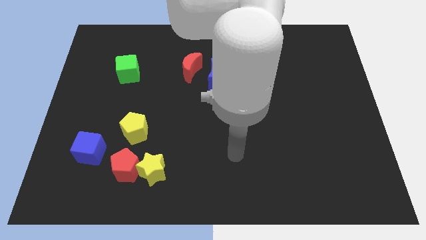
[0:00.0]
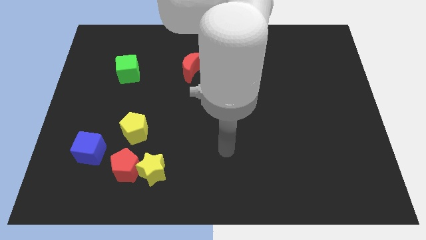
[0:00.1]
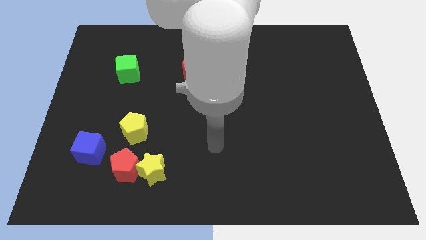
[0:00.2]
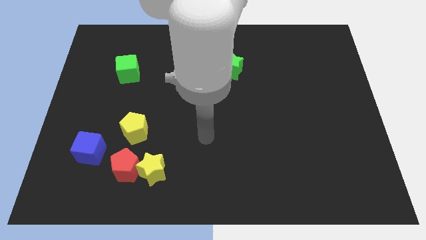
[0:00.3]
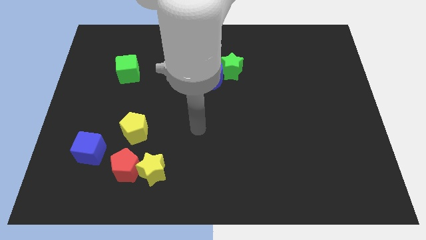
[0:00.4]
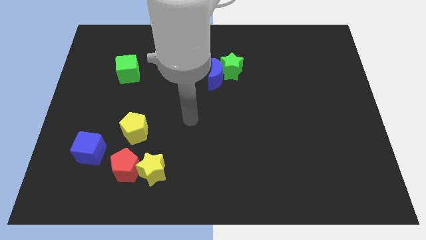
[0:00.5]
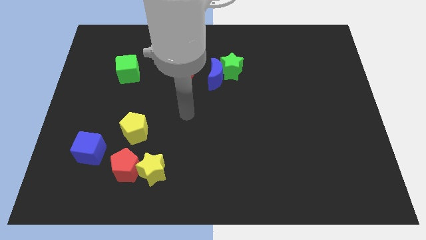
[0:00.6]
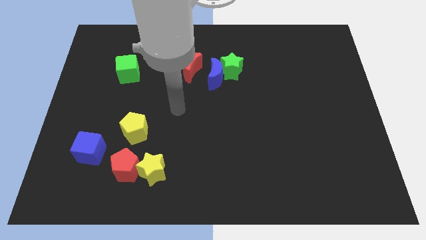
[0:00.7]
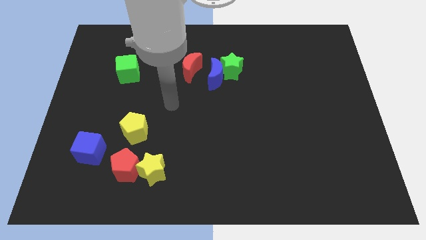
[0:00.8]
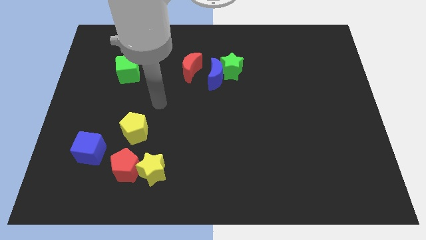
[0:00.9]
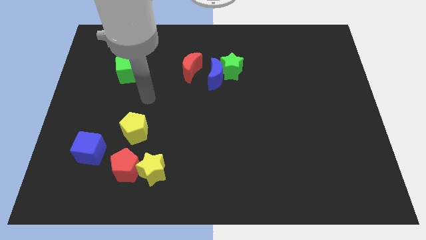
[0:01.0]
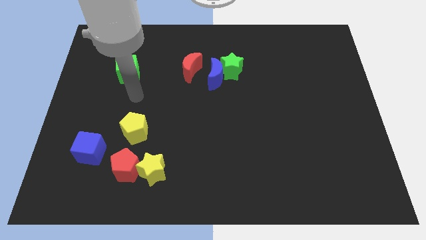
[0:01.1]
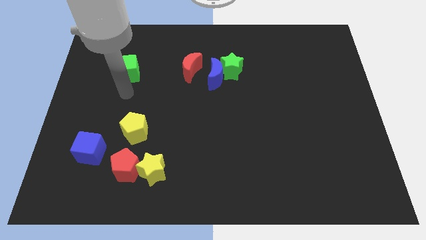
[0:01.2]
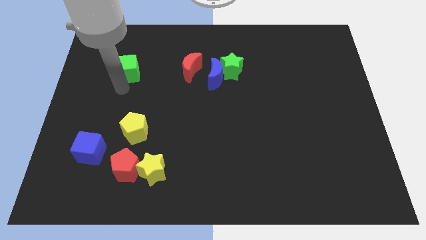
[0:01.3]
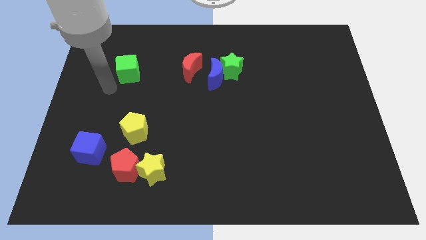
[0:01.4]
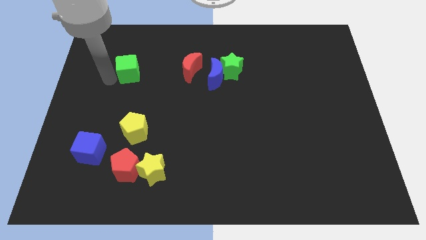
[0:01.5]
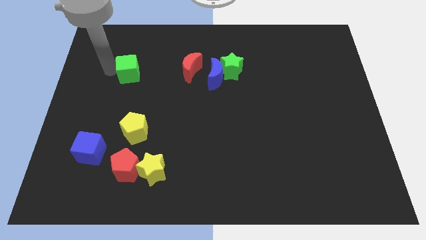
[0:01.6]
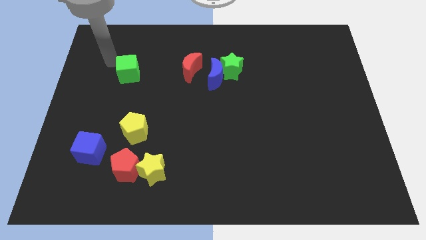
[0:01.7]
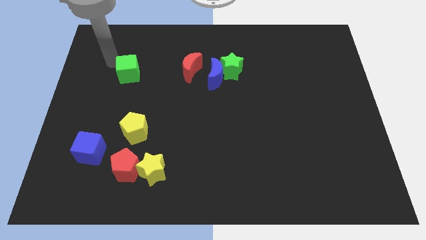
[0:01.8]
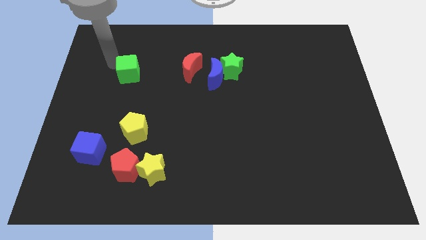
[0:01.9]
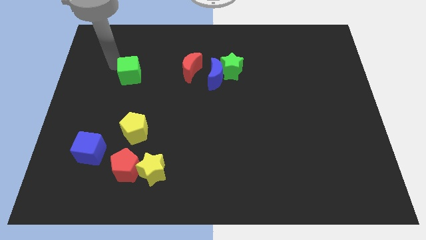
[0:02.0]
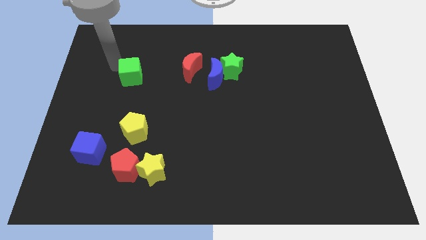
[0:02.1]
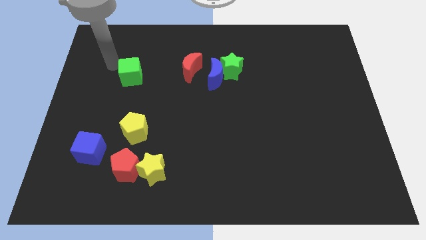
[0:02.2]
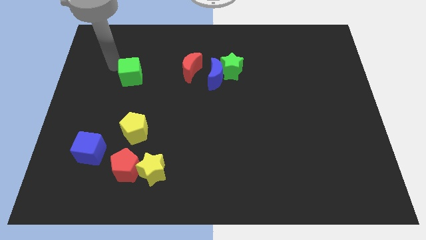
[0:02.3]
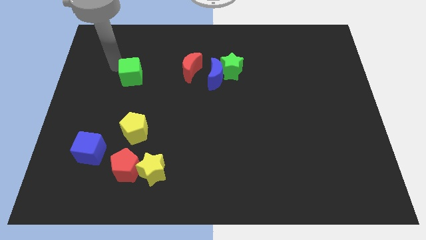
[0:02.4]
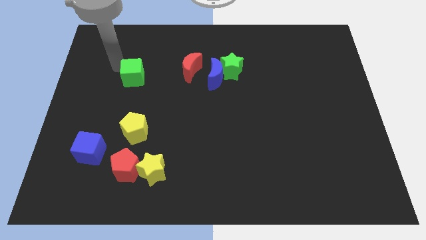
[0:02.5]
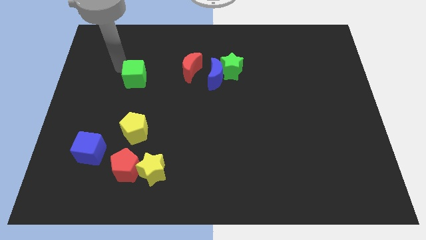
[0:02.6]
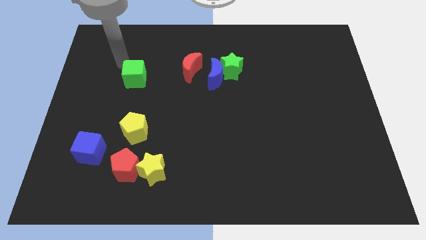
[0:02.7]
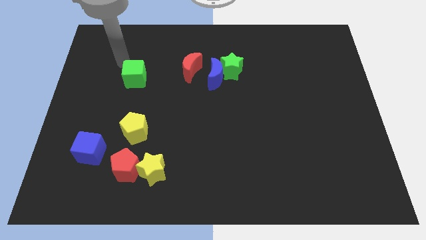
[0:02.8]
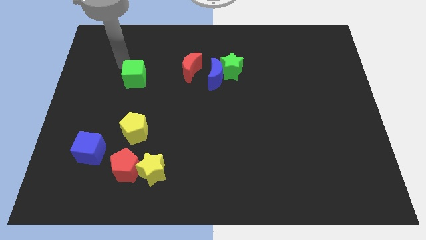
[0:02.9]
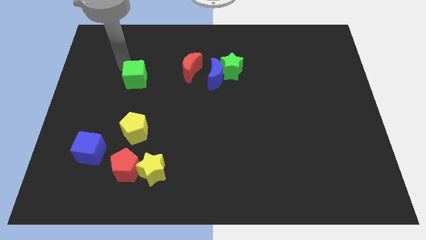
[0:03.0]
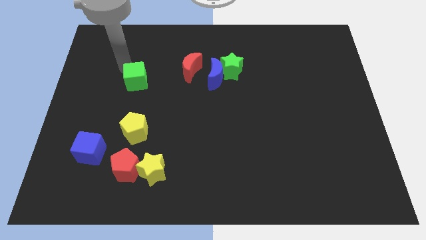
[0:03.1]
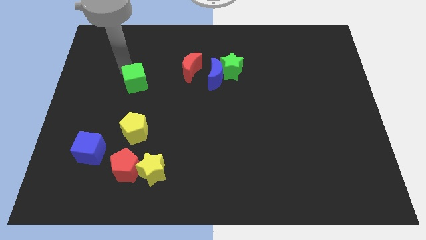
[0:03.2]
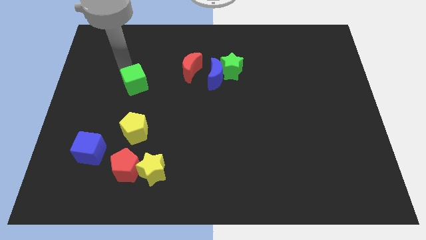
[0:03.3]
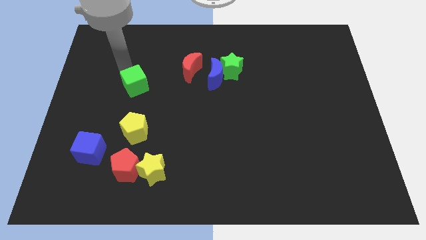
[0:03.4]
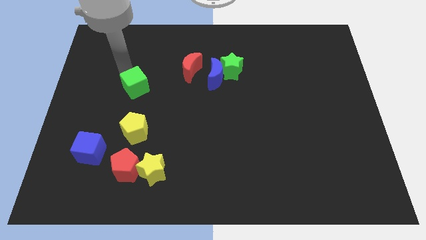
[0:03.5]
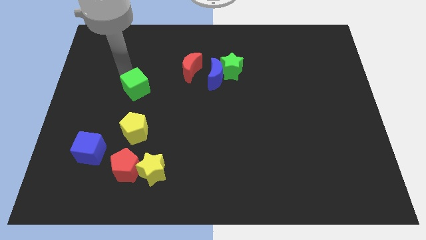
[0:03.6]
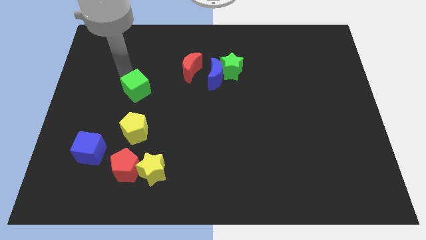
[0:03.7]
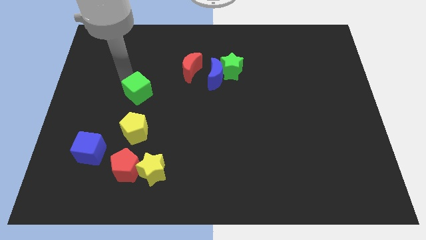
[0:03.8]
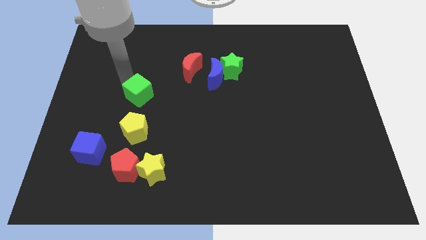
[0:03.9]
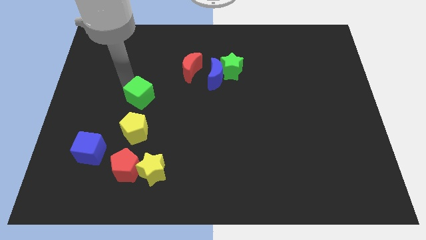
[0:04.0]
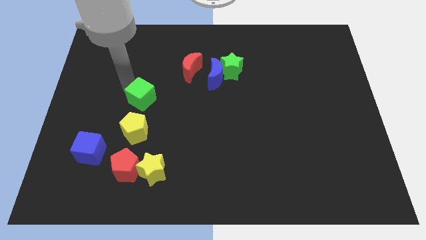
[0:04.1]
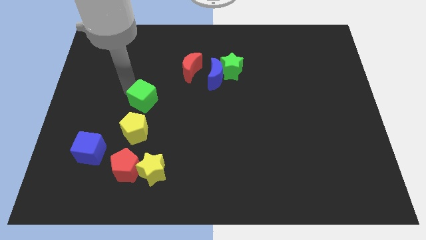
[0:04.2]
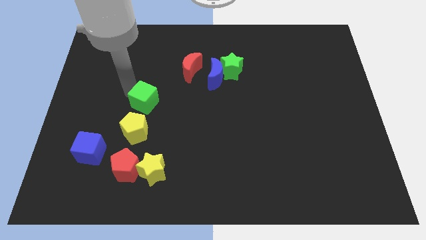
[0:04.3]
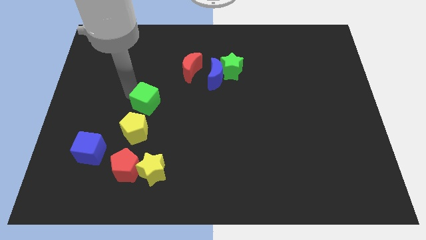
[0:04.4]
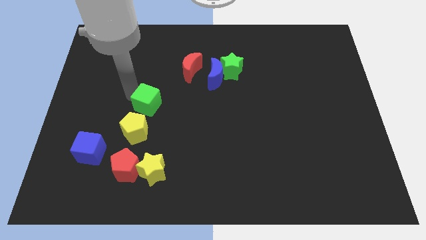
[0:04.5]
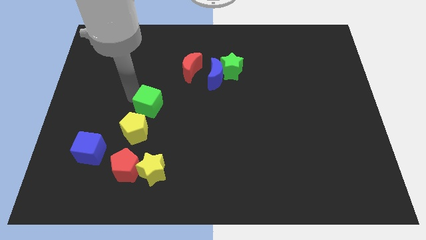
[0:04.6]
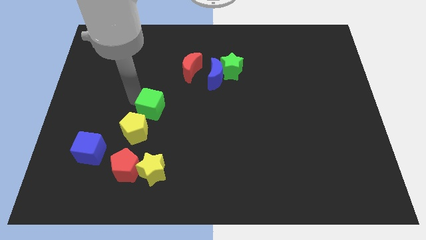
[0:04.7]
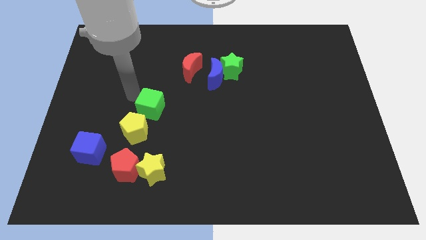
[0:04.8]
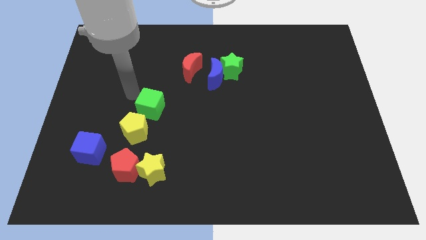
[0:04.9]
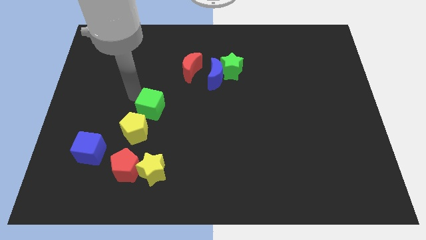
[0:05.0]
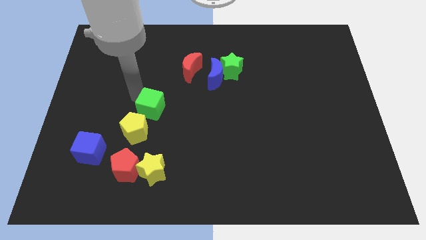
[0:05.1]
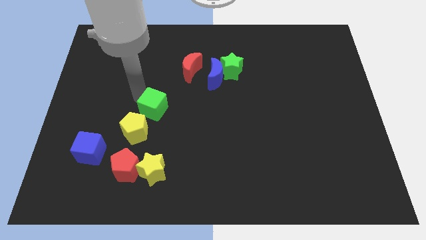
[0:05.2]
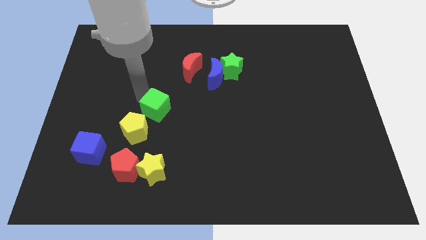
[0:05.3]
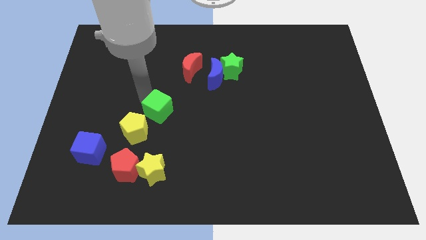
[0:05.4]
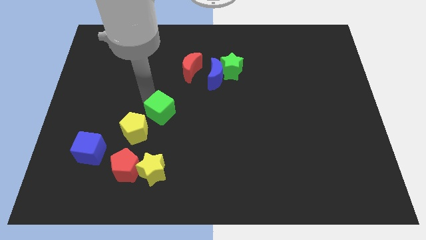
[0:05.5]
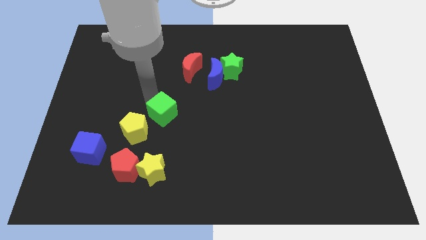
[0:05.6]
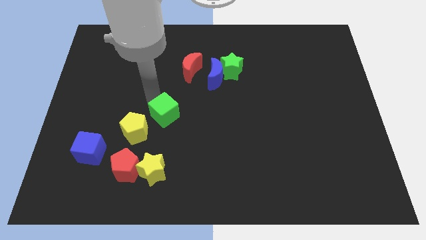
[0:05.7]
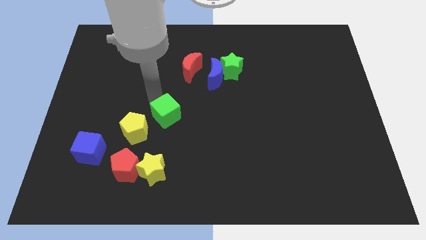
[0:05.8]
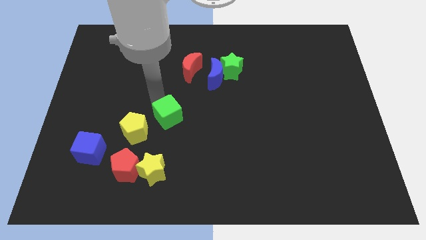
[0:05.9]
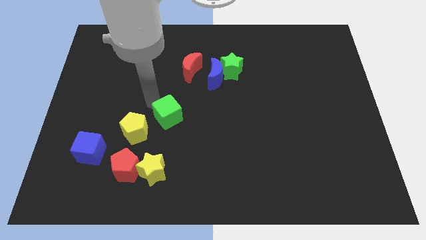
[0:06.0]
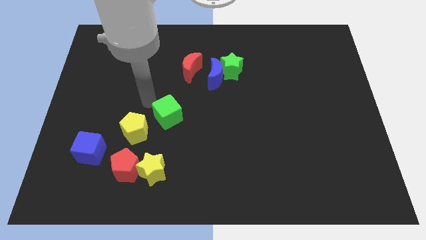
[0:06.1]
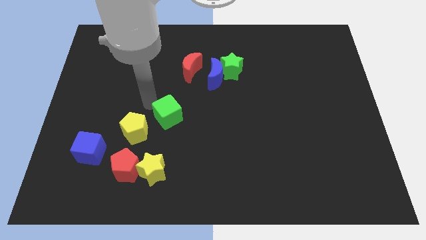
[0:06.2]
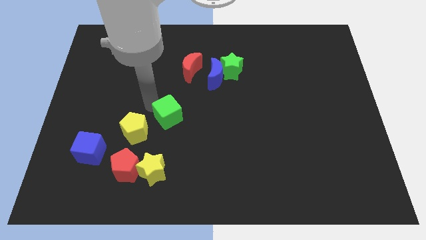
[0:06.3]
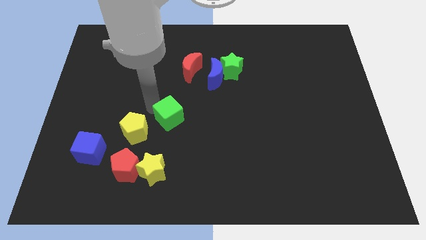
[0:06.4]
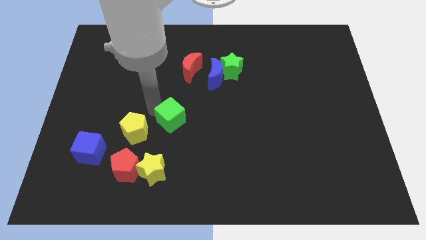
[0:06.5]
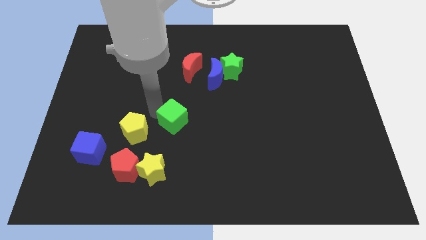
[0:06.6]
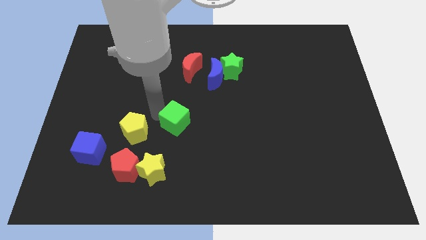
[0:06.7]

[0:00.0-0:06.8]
slide the green cube down and to the right

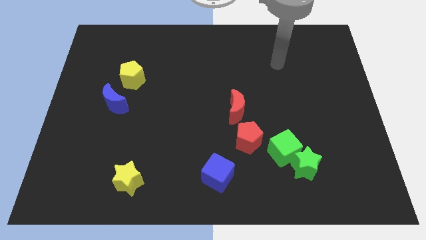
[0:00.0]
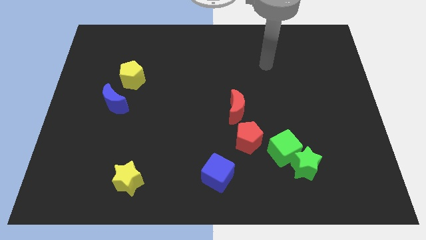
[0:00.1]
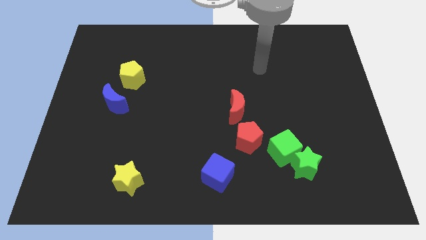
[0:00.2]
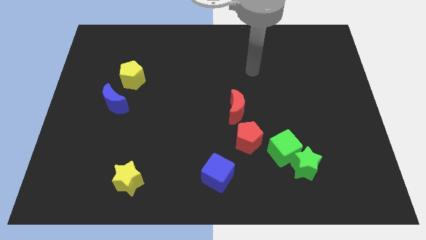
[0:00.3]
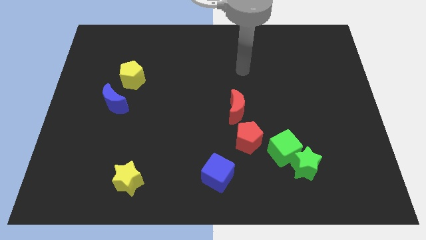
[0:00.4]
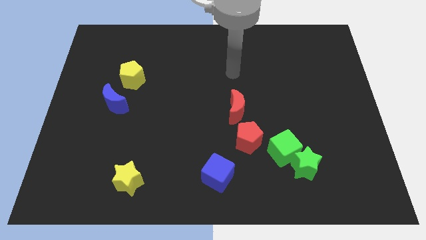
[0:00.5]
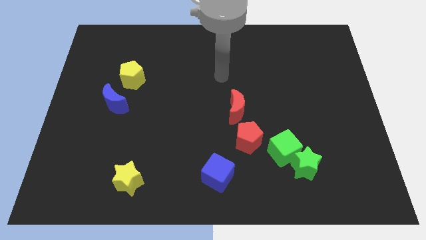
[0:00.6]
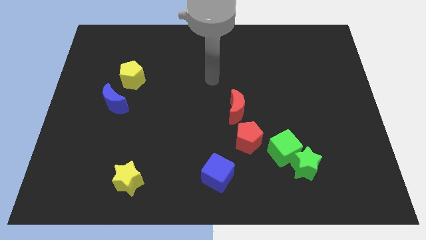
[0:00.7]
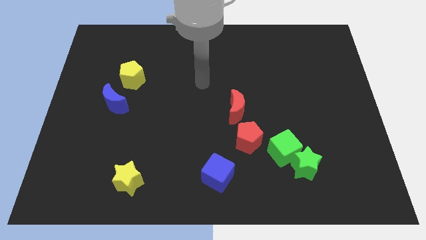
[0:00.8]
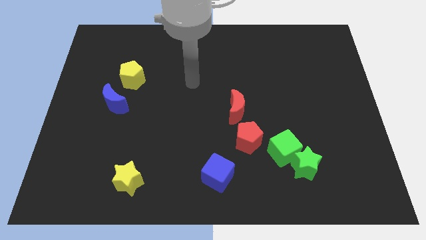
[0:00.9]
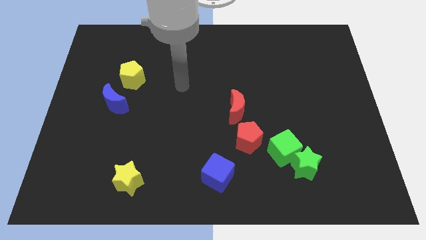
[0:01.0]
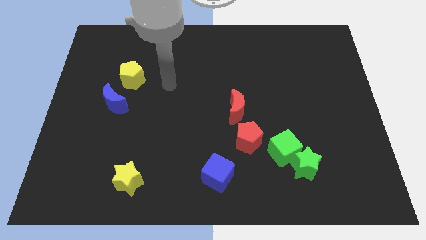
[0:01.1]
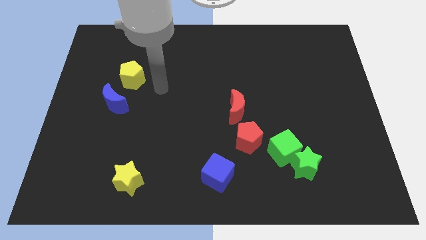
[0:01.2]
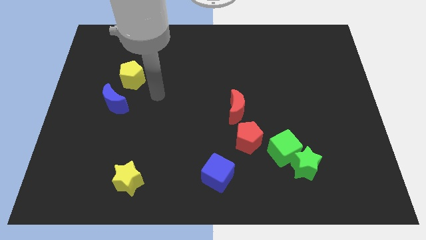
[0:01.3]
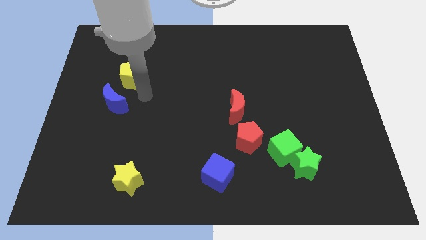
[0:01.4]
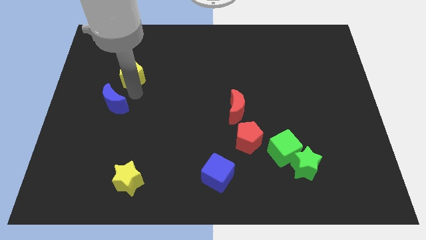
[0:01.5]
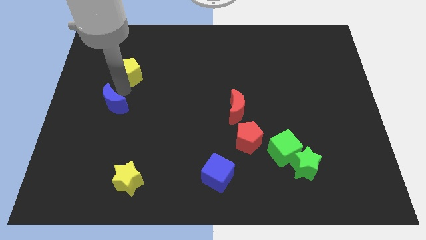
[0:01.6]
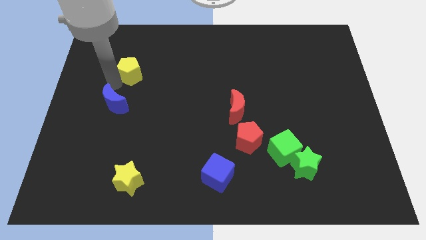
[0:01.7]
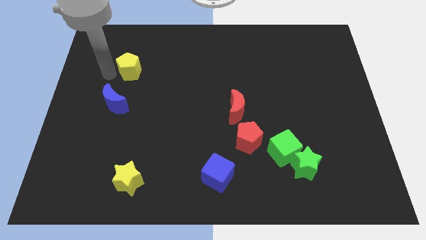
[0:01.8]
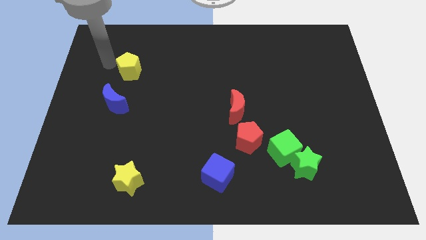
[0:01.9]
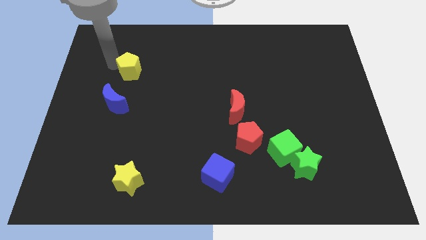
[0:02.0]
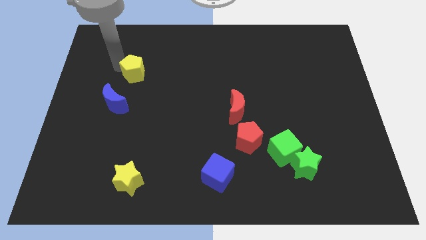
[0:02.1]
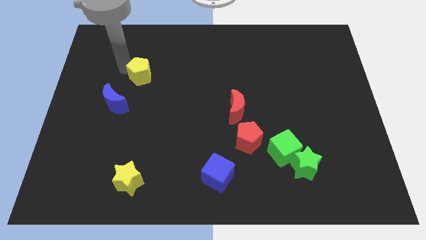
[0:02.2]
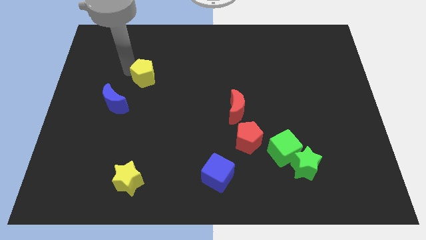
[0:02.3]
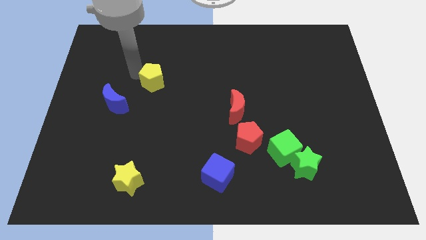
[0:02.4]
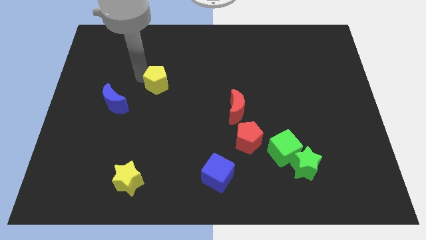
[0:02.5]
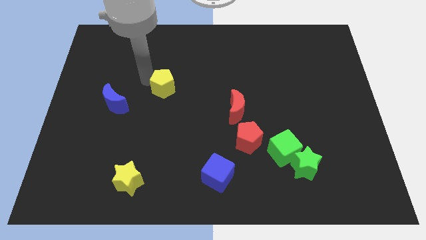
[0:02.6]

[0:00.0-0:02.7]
slightly slide the yellow pentagon to the right
